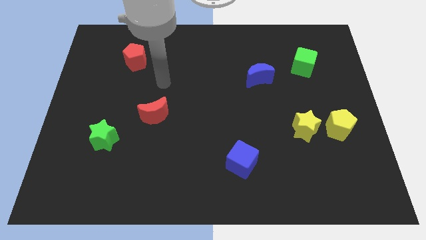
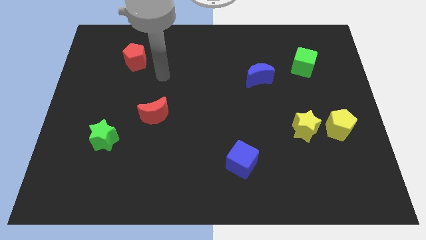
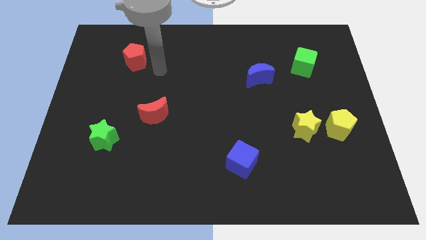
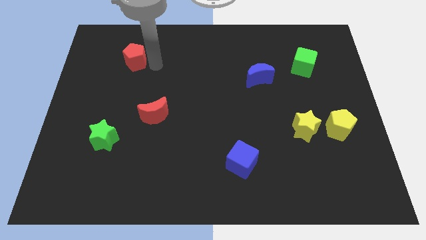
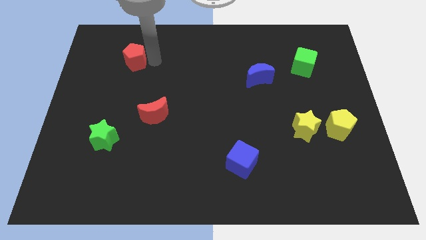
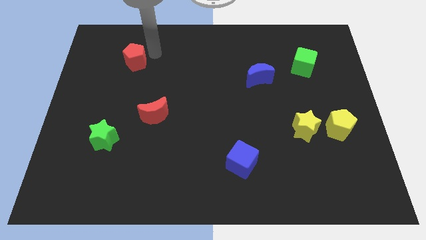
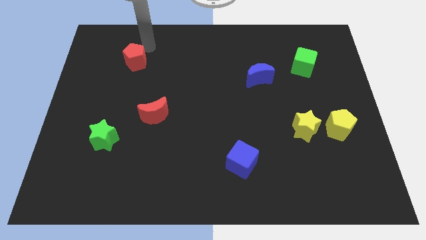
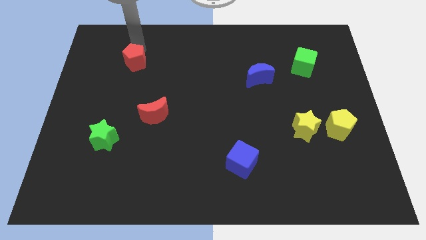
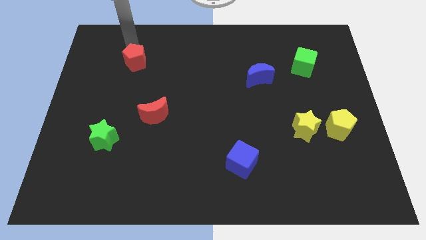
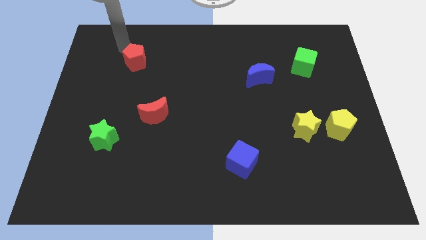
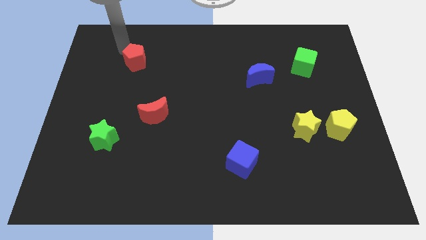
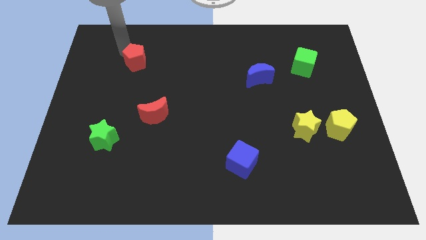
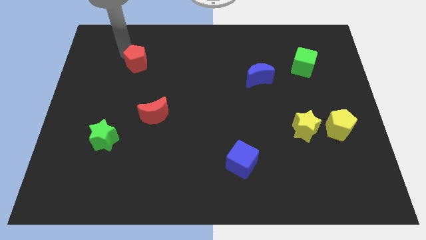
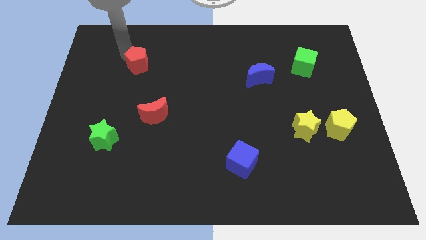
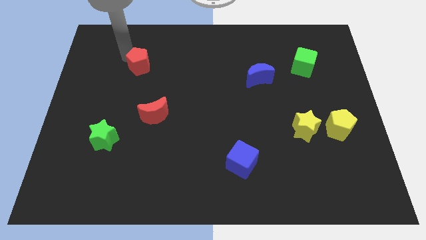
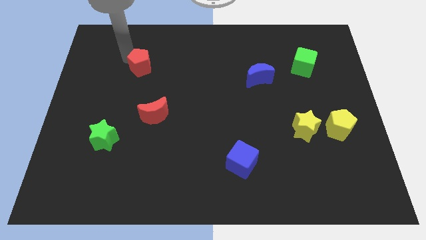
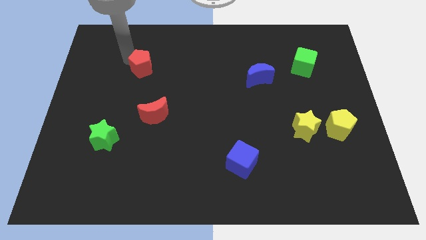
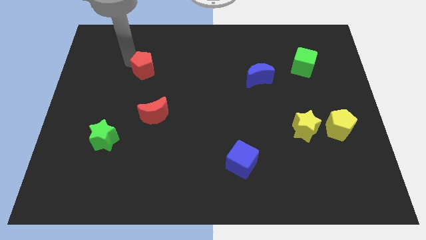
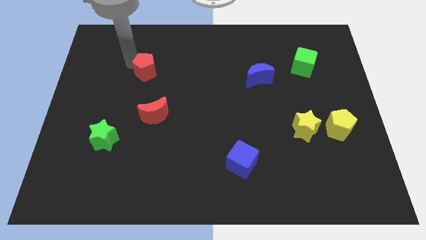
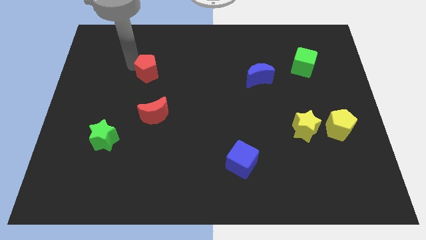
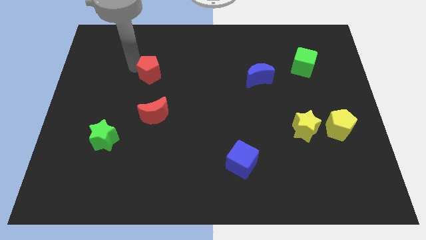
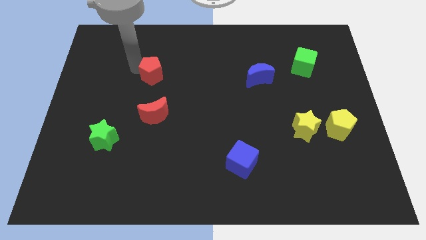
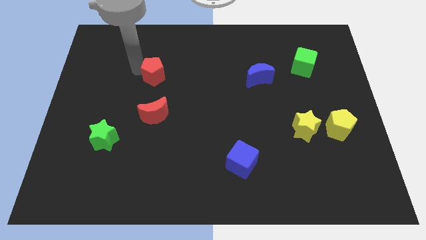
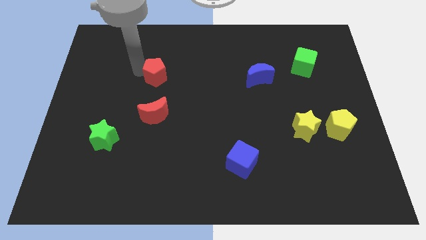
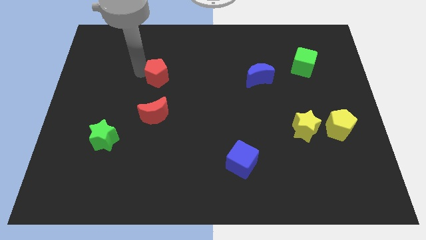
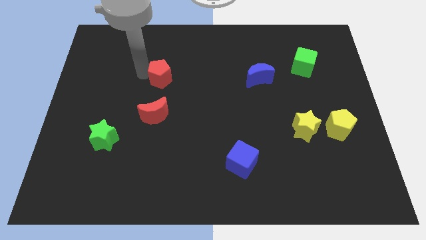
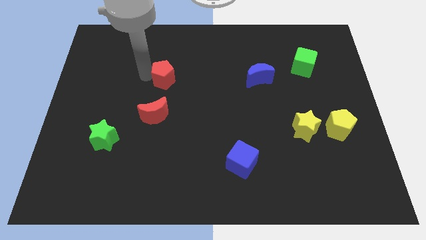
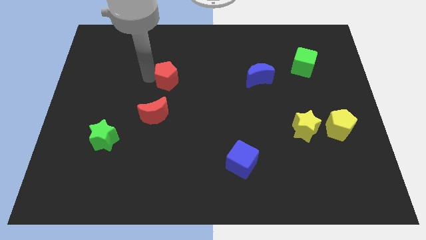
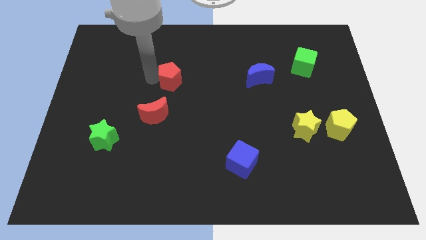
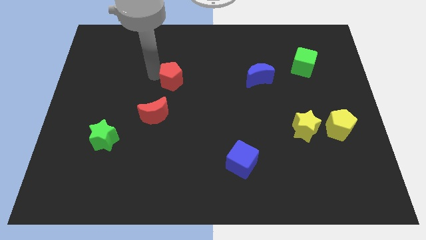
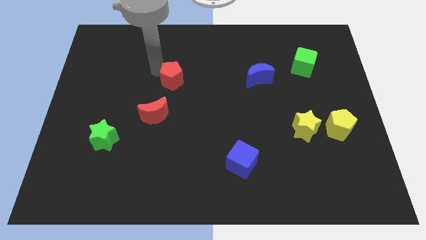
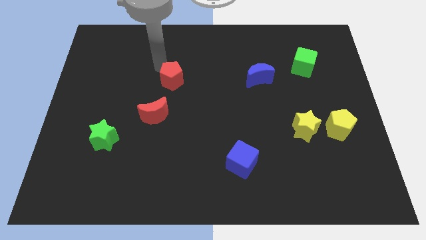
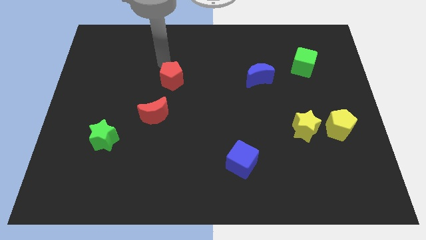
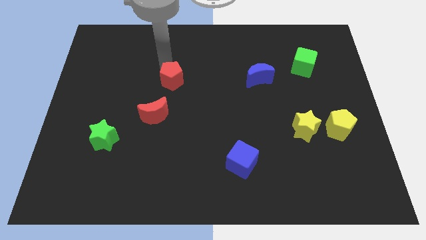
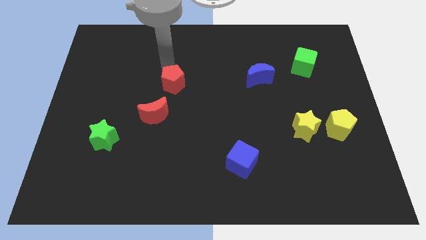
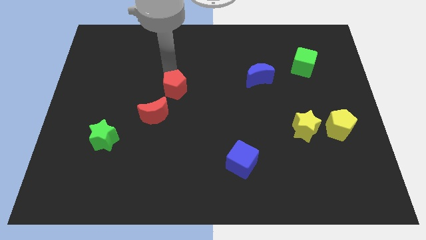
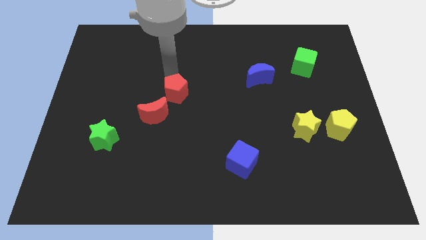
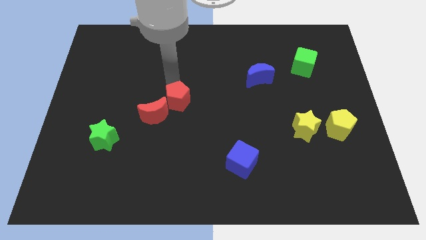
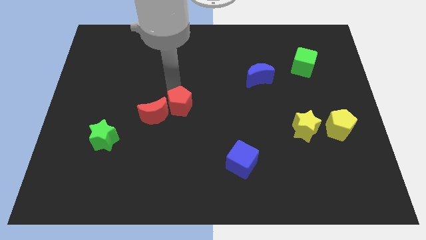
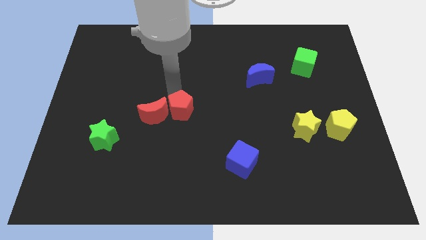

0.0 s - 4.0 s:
push the red pentagon diagonally down and right

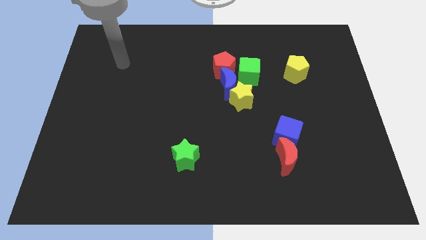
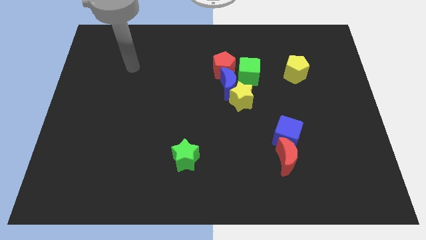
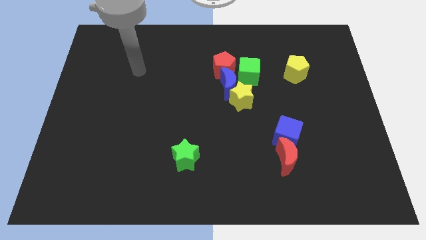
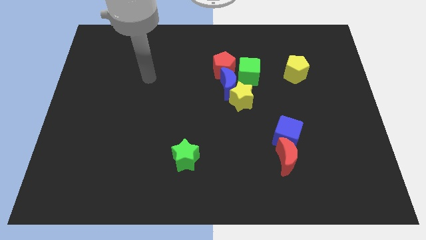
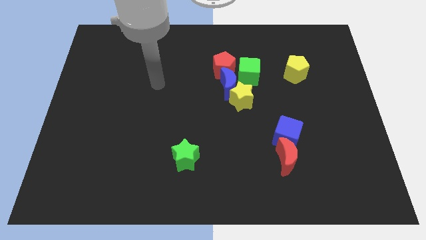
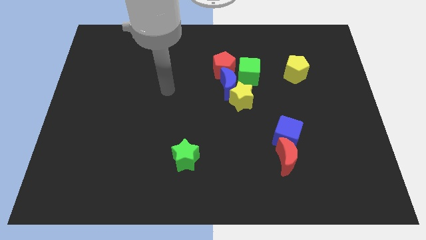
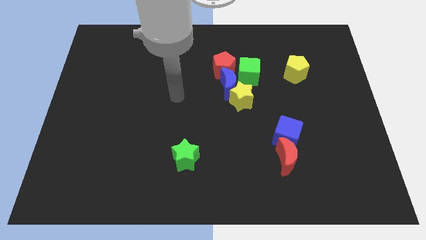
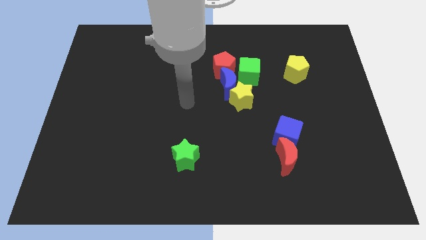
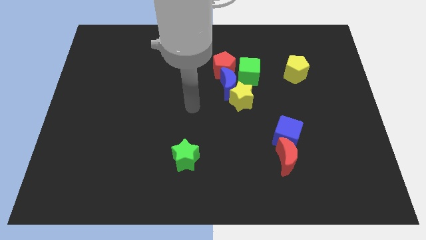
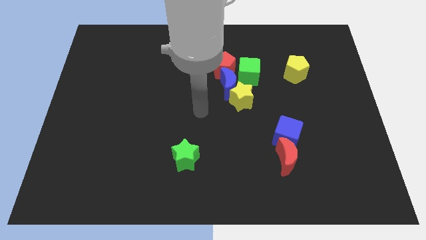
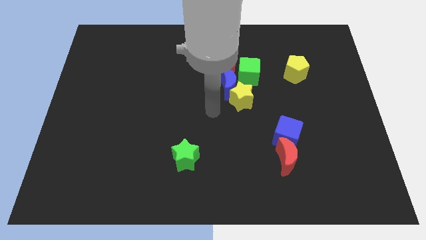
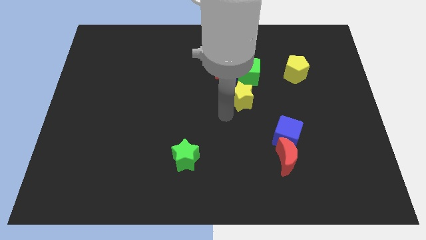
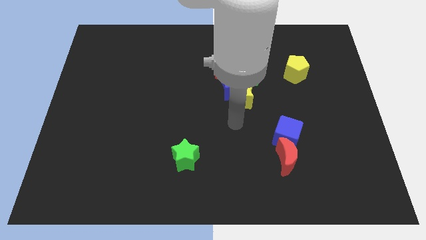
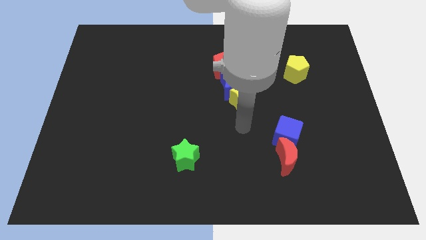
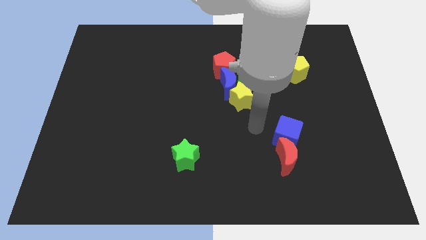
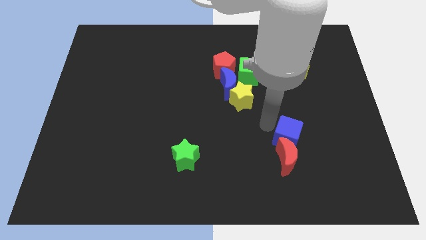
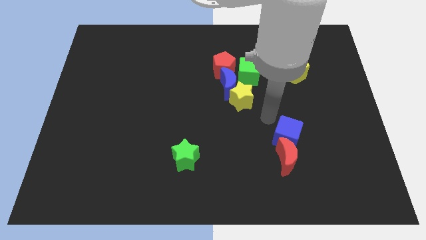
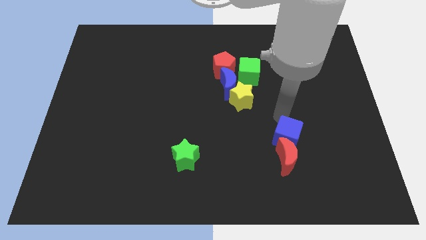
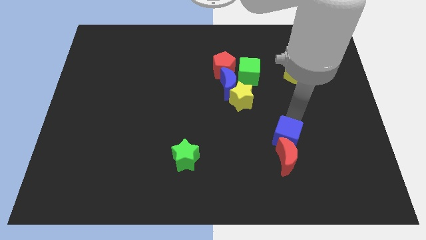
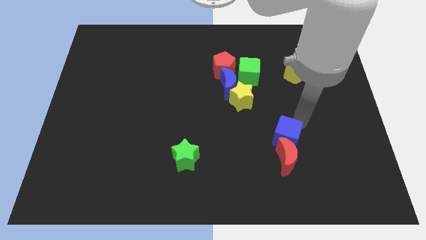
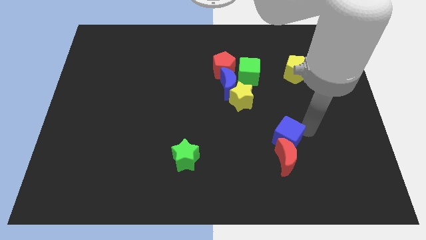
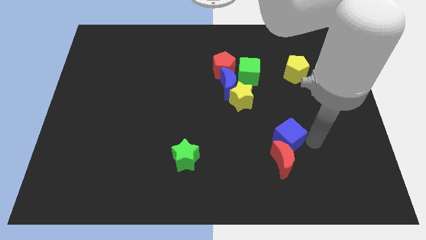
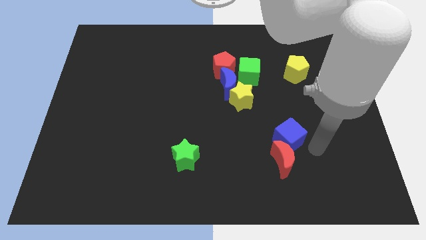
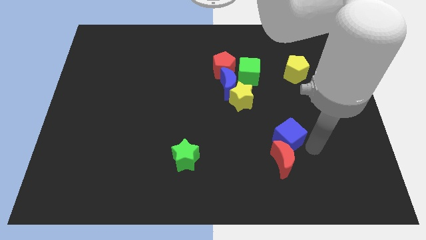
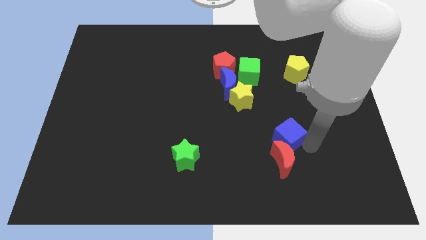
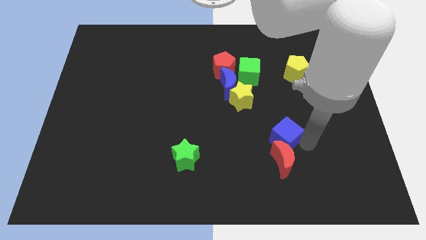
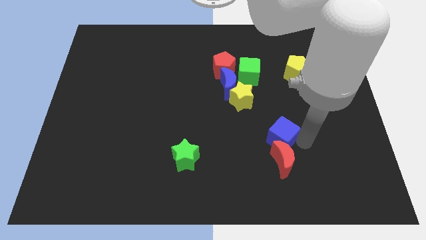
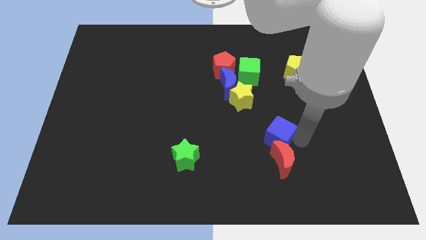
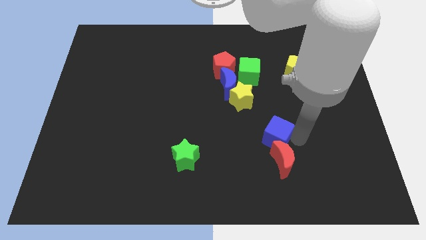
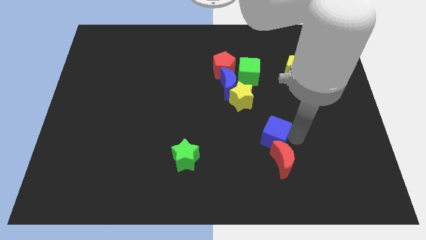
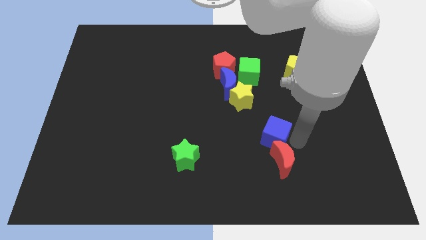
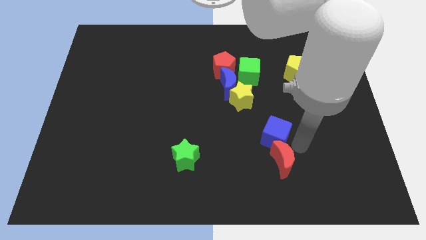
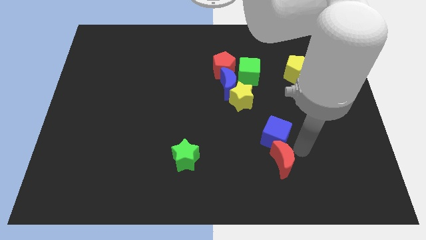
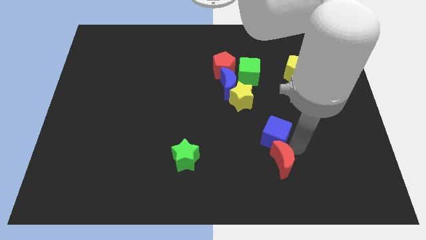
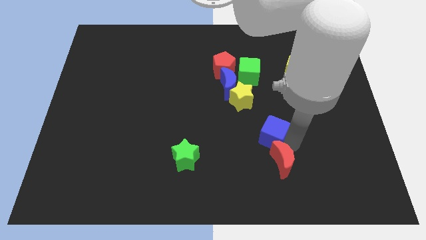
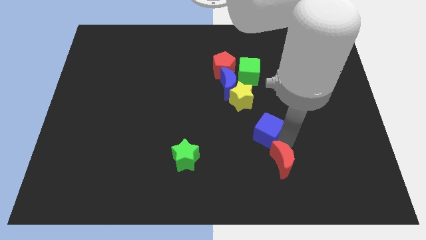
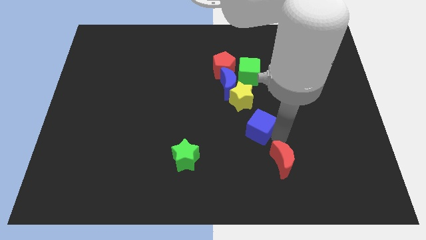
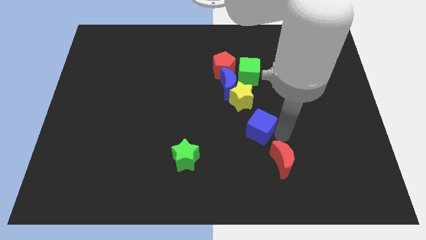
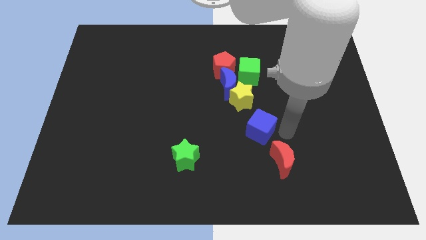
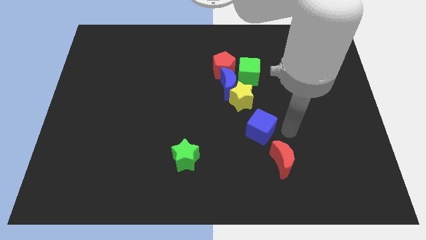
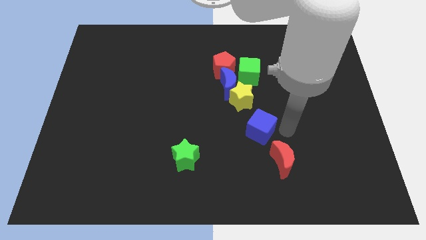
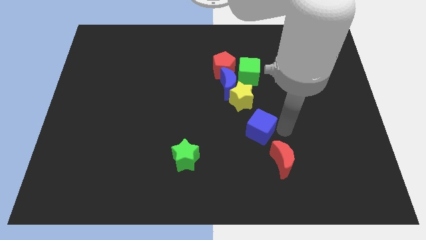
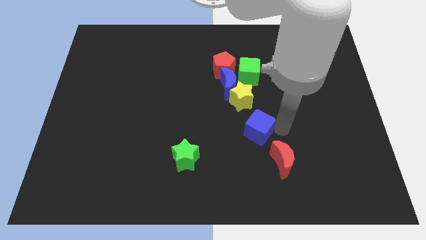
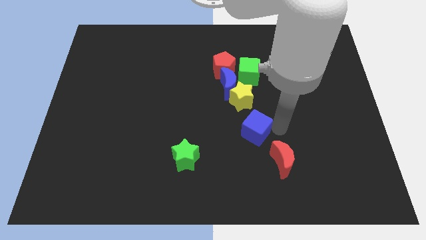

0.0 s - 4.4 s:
slightly slide the blue cube to the left
